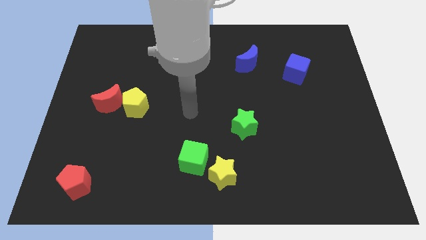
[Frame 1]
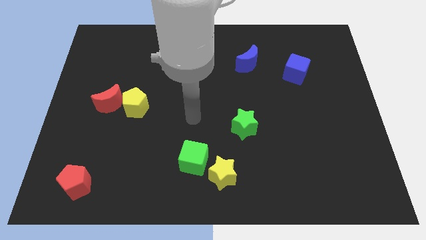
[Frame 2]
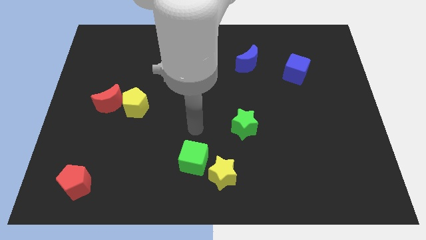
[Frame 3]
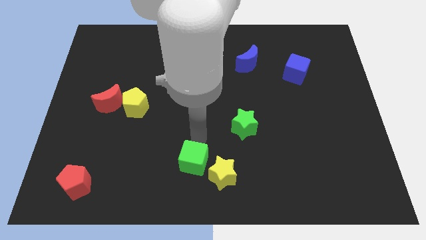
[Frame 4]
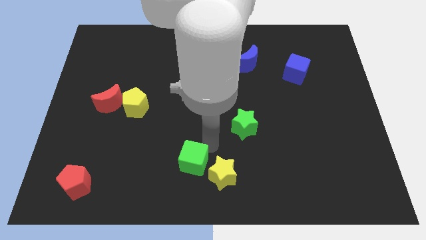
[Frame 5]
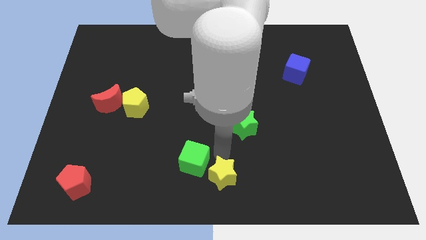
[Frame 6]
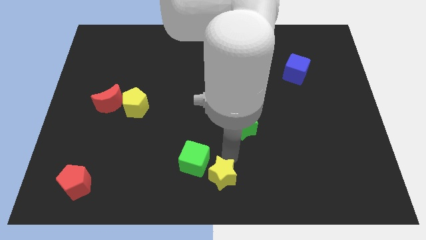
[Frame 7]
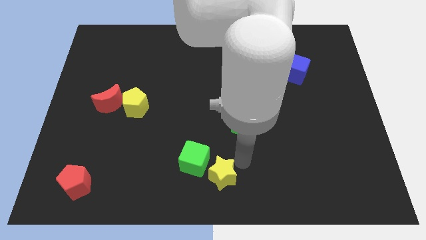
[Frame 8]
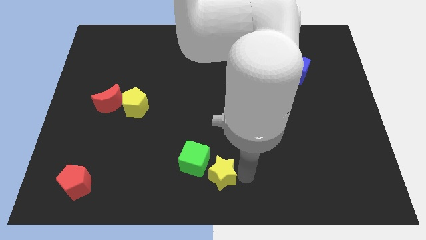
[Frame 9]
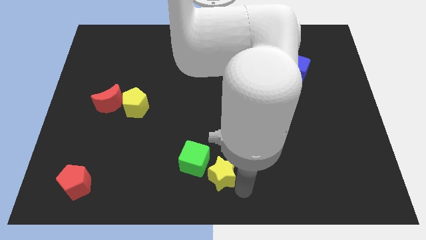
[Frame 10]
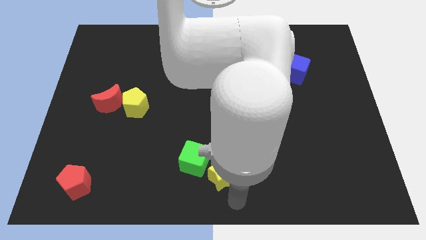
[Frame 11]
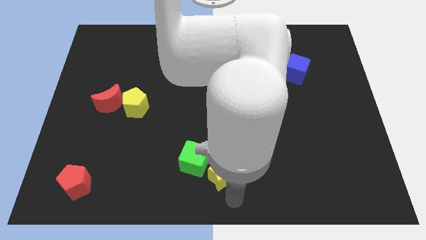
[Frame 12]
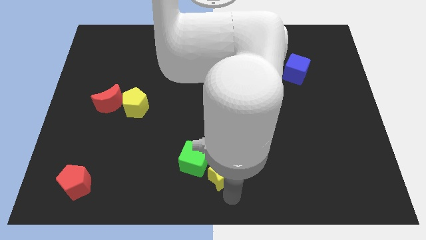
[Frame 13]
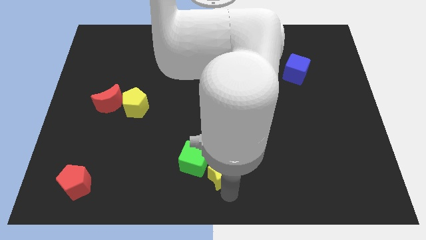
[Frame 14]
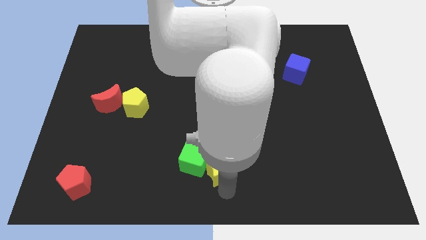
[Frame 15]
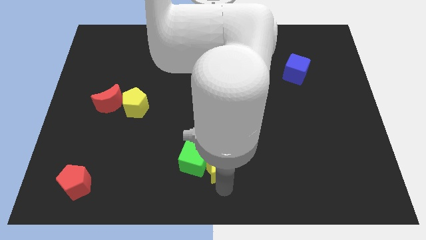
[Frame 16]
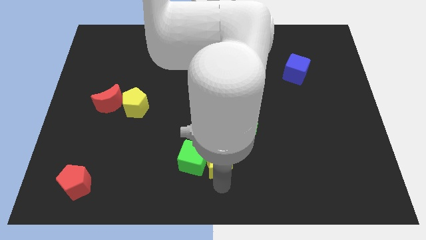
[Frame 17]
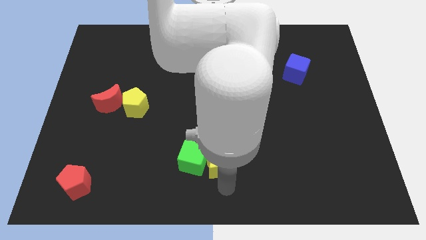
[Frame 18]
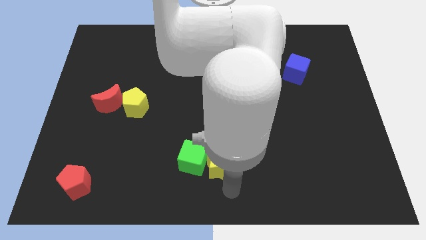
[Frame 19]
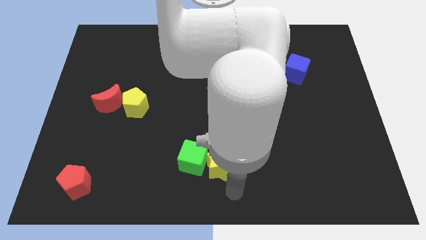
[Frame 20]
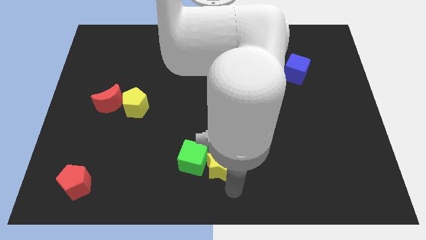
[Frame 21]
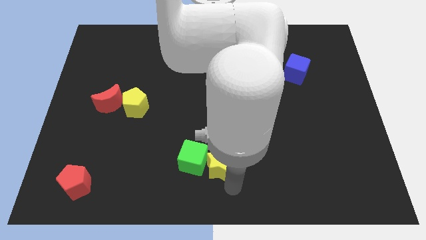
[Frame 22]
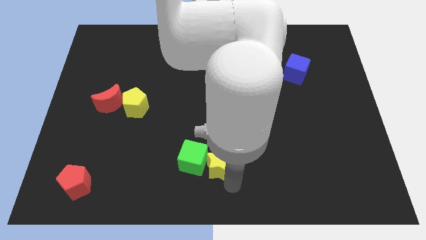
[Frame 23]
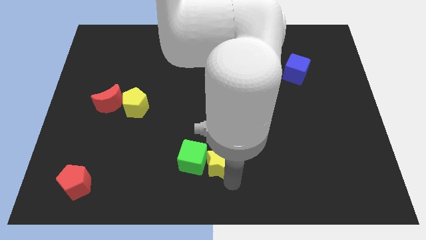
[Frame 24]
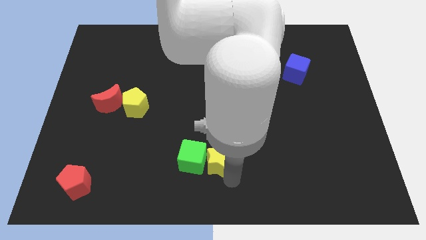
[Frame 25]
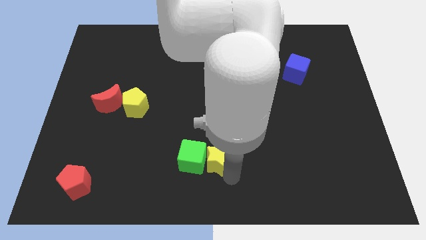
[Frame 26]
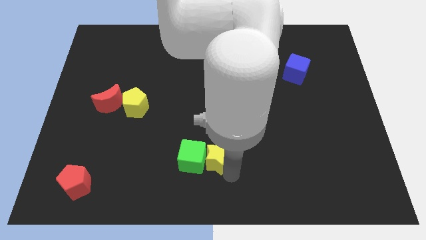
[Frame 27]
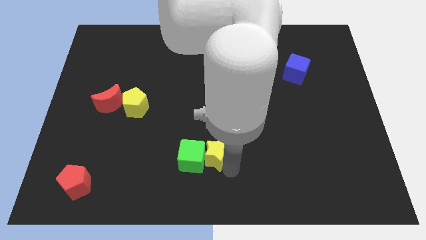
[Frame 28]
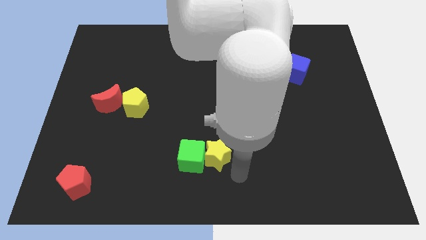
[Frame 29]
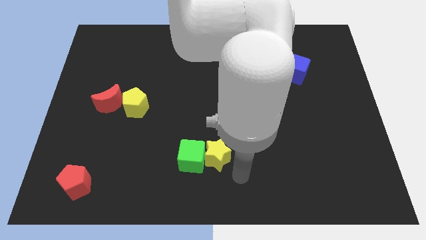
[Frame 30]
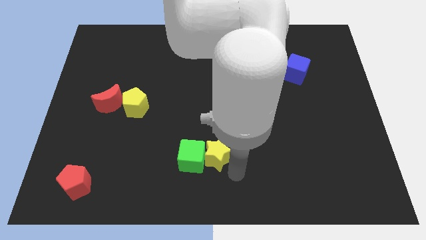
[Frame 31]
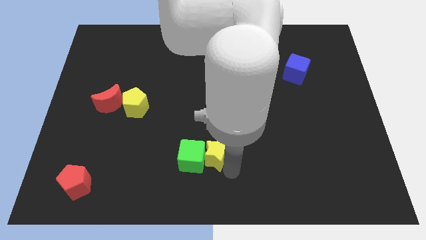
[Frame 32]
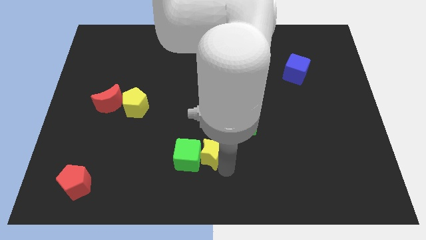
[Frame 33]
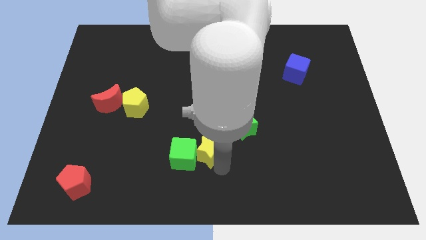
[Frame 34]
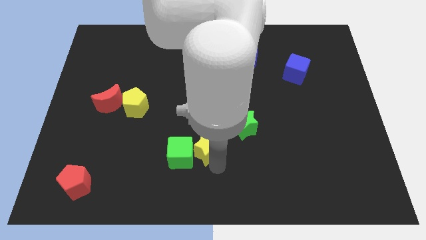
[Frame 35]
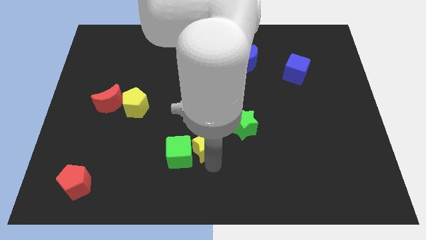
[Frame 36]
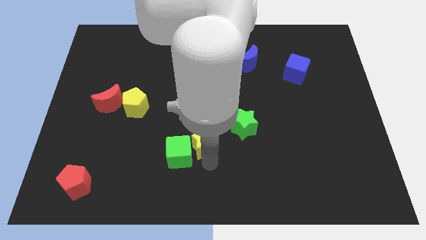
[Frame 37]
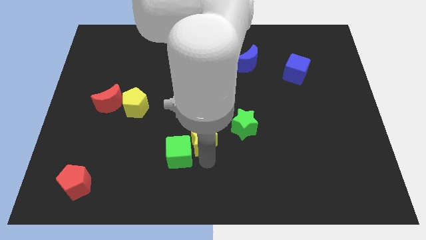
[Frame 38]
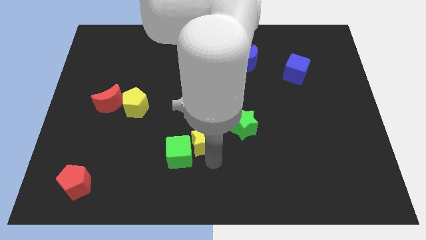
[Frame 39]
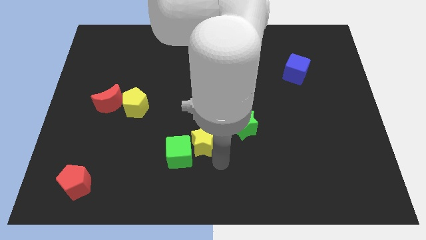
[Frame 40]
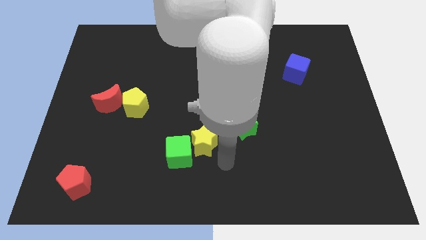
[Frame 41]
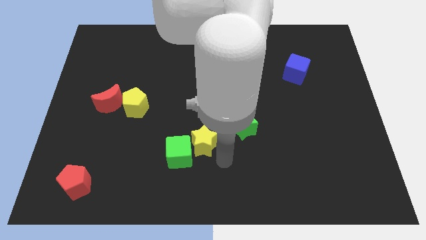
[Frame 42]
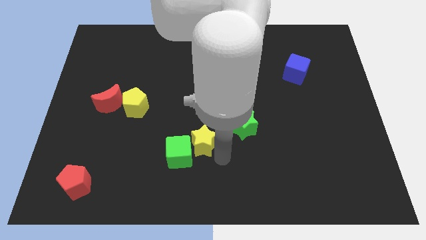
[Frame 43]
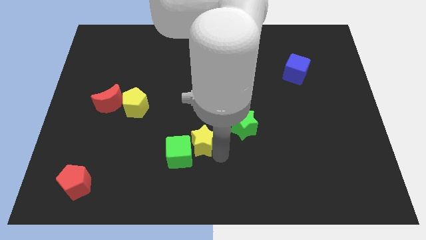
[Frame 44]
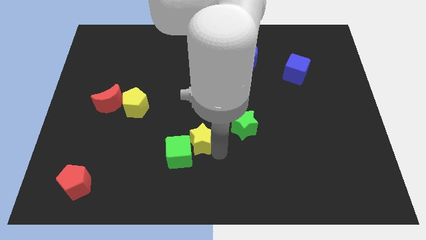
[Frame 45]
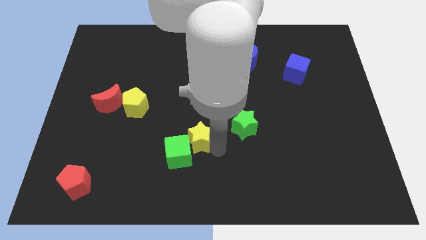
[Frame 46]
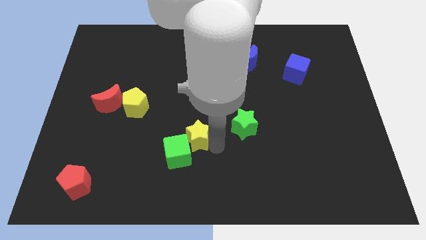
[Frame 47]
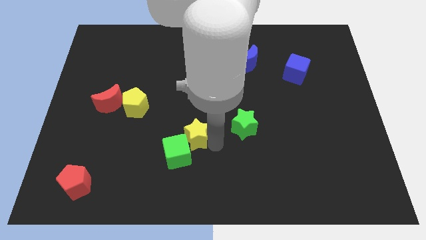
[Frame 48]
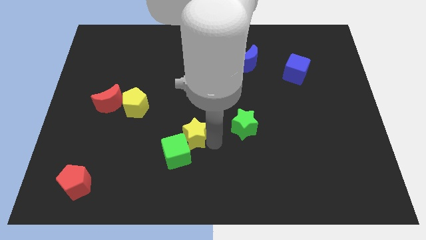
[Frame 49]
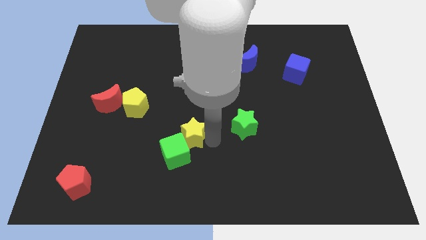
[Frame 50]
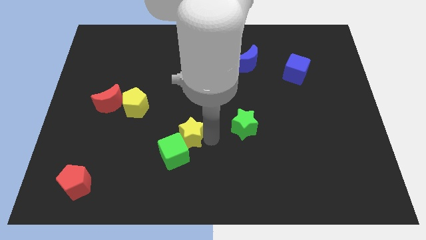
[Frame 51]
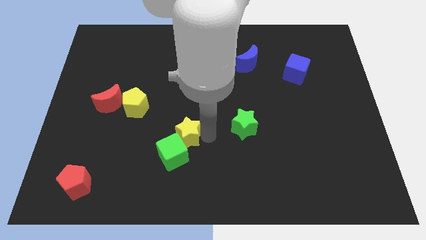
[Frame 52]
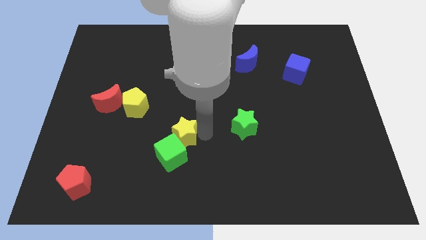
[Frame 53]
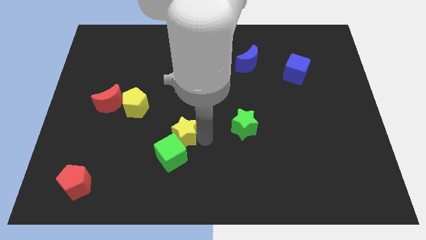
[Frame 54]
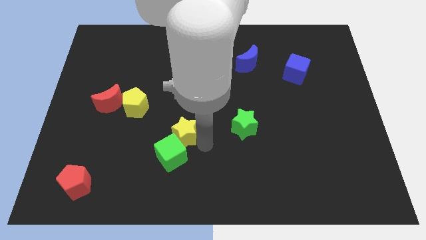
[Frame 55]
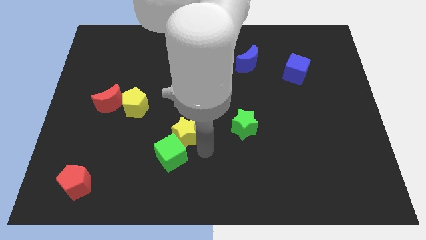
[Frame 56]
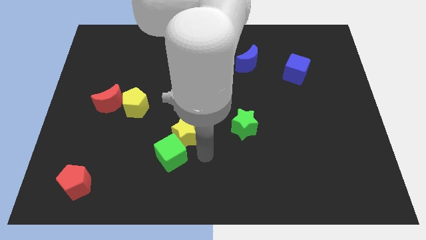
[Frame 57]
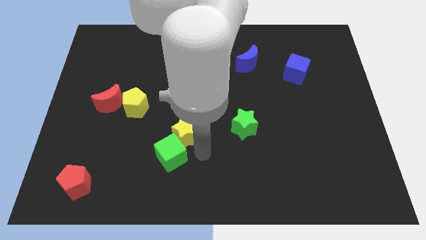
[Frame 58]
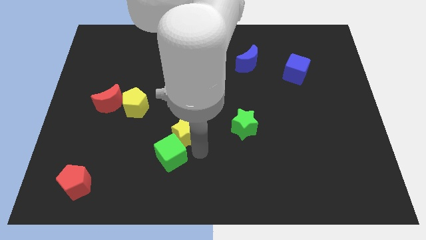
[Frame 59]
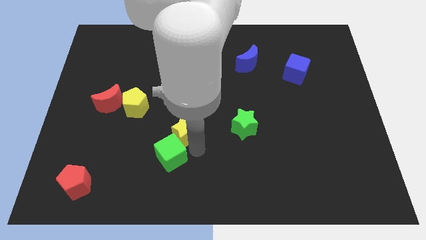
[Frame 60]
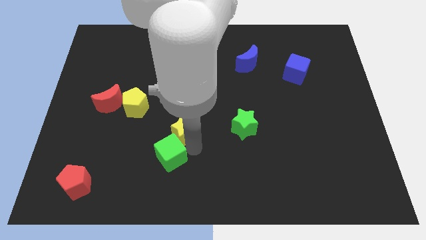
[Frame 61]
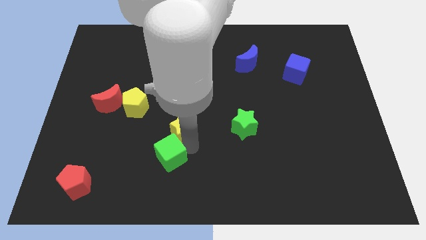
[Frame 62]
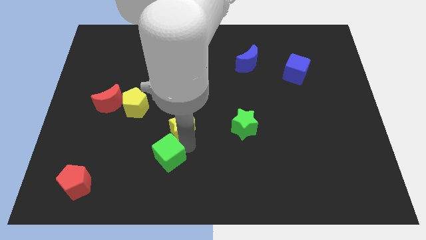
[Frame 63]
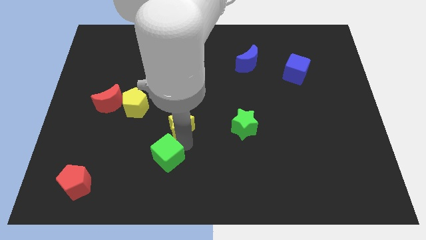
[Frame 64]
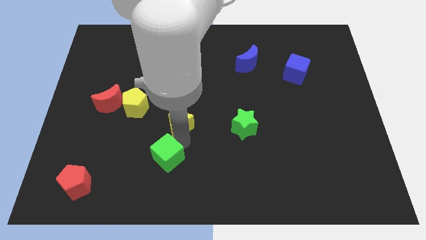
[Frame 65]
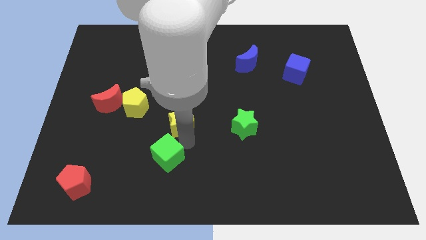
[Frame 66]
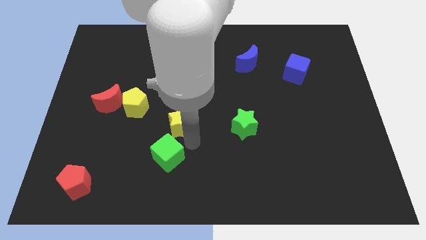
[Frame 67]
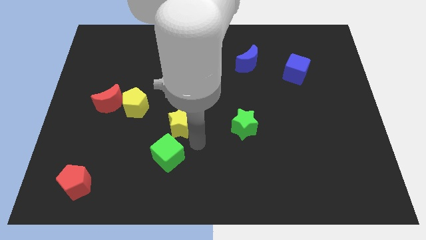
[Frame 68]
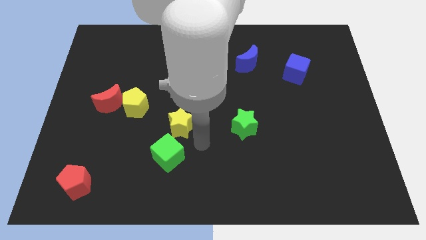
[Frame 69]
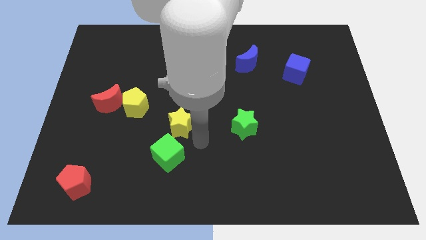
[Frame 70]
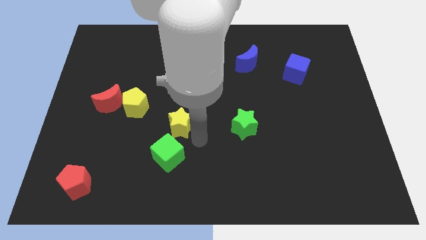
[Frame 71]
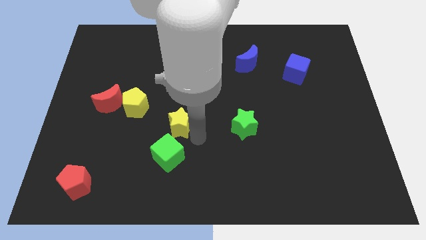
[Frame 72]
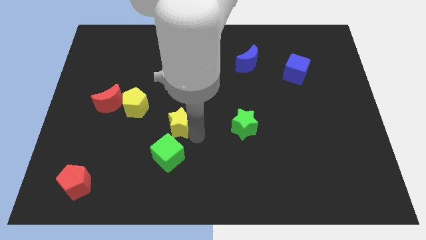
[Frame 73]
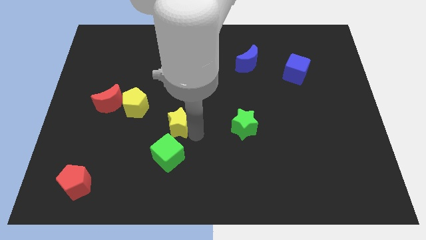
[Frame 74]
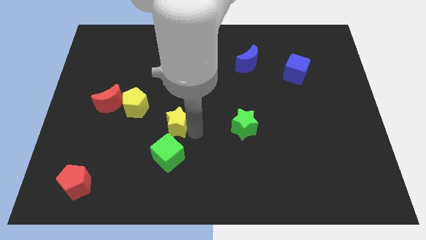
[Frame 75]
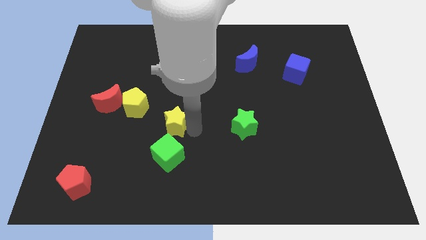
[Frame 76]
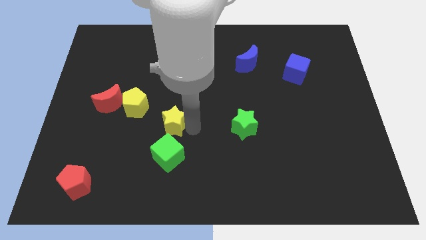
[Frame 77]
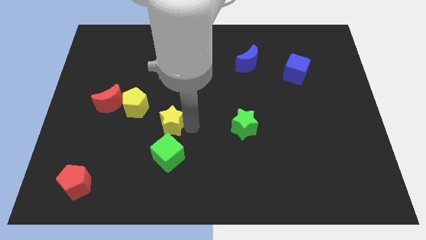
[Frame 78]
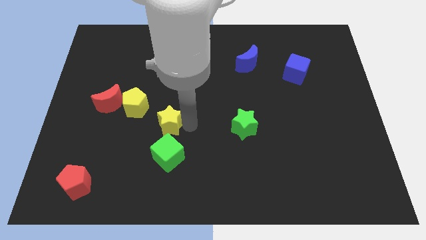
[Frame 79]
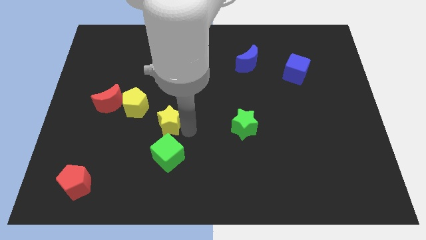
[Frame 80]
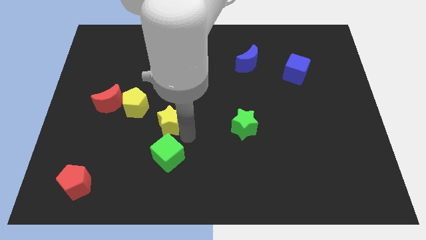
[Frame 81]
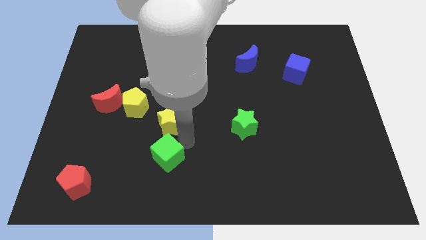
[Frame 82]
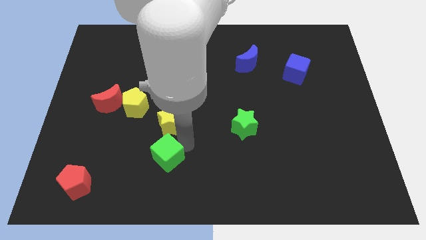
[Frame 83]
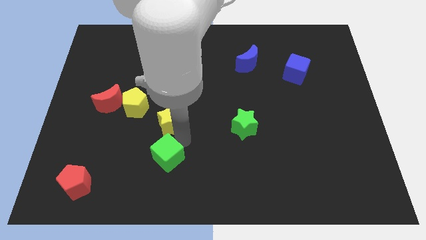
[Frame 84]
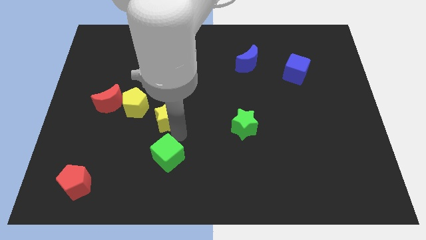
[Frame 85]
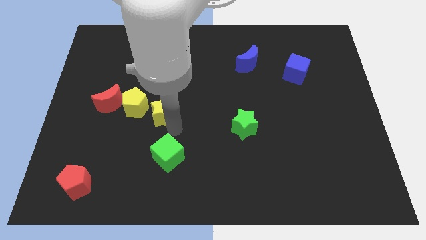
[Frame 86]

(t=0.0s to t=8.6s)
push the yellow star diagonally up and left
